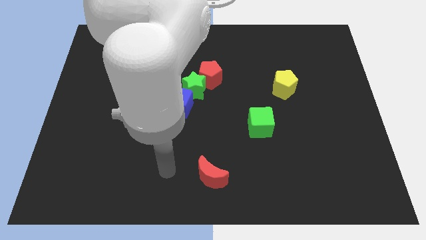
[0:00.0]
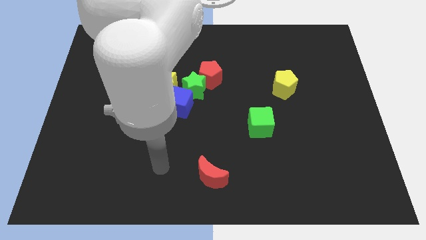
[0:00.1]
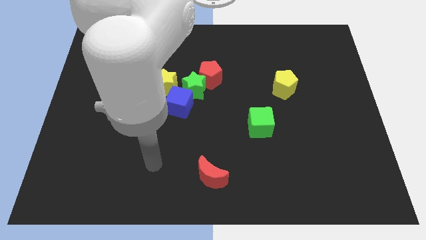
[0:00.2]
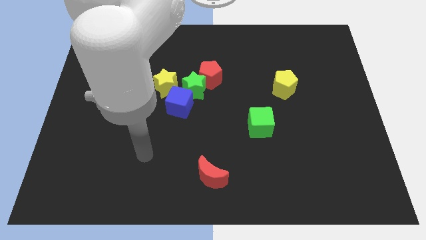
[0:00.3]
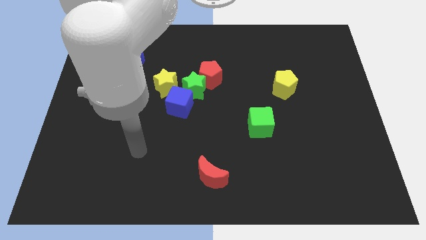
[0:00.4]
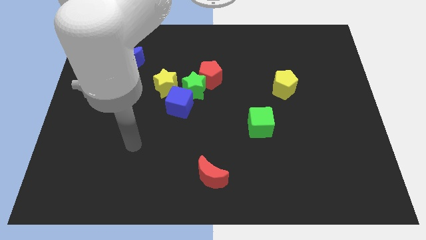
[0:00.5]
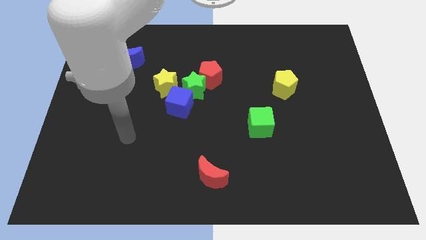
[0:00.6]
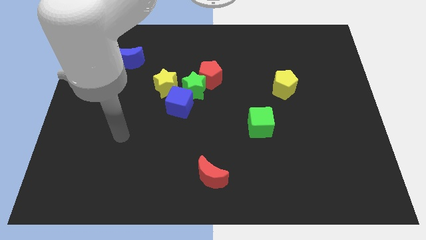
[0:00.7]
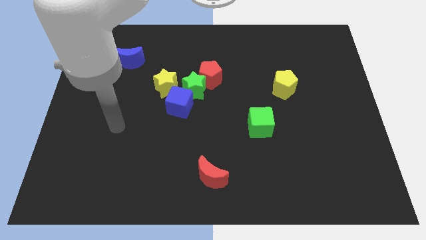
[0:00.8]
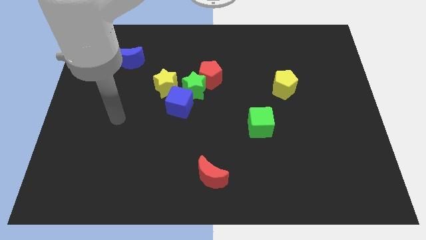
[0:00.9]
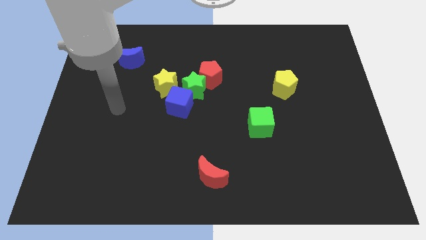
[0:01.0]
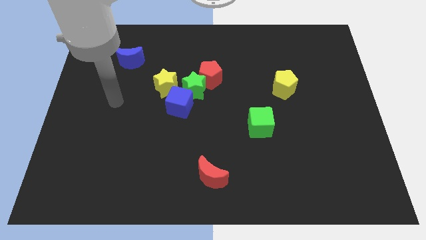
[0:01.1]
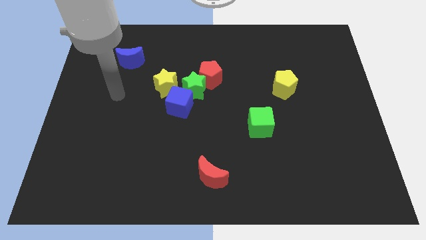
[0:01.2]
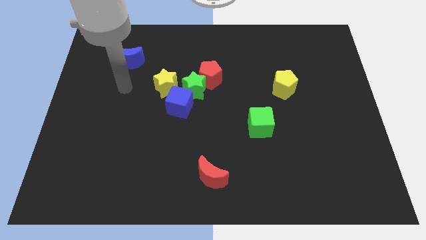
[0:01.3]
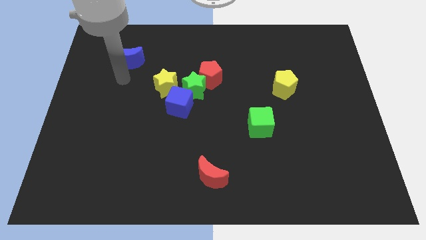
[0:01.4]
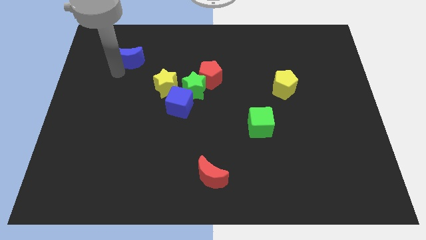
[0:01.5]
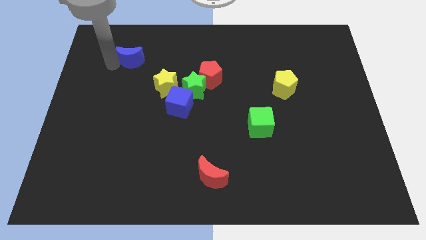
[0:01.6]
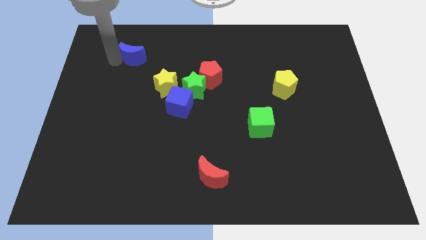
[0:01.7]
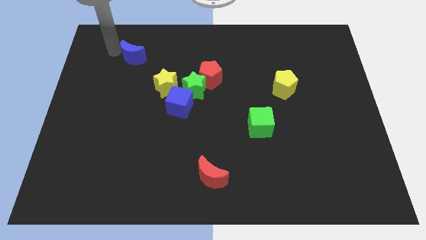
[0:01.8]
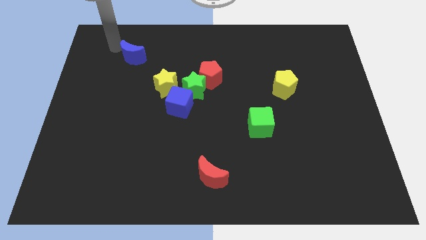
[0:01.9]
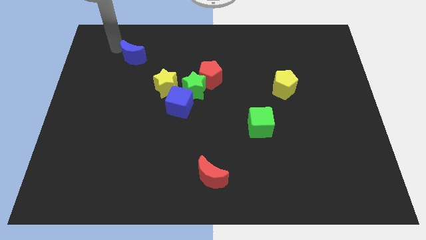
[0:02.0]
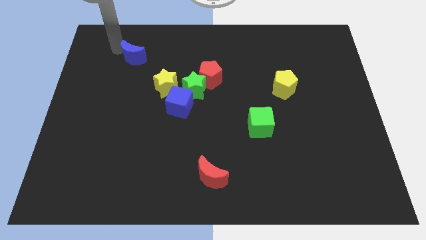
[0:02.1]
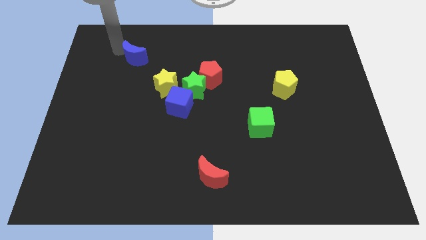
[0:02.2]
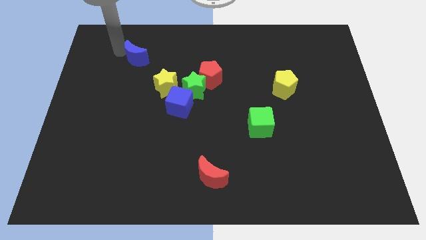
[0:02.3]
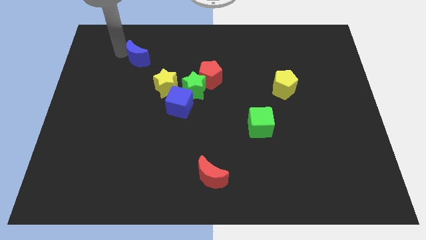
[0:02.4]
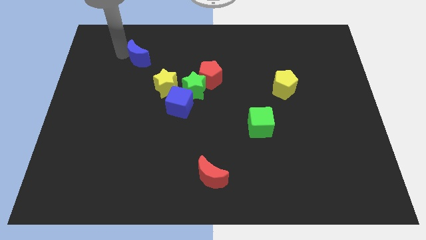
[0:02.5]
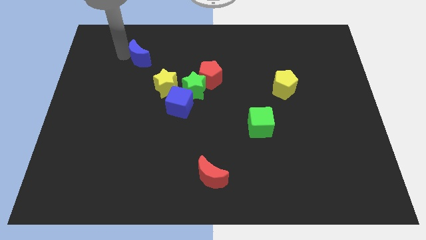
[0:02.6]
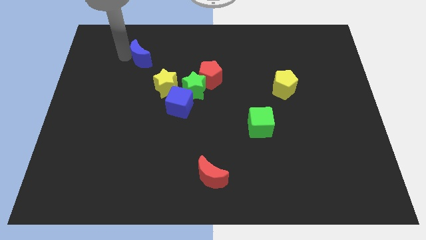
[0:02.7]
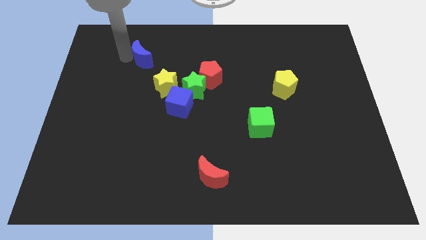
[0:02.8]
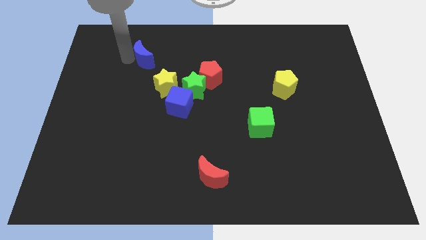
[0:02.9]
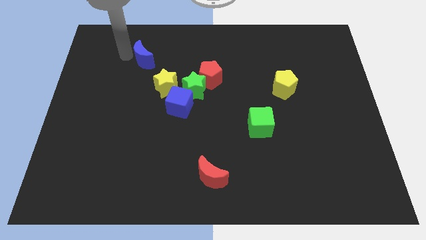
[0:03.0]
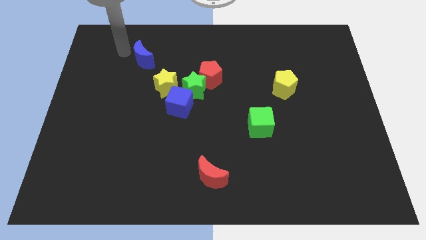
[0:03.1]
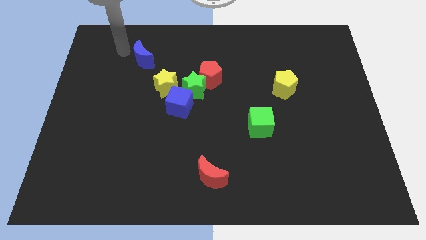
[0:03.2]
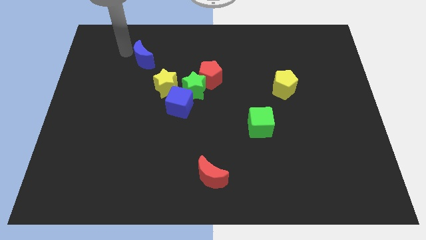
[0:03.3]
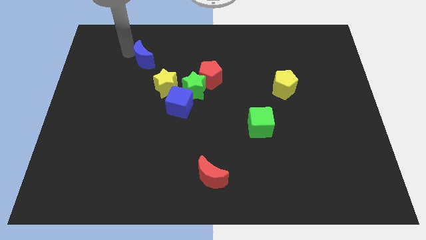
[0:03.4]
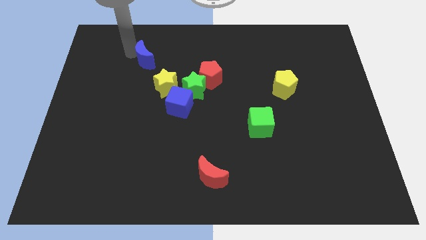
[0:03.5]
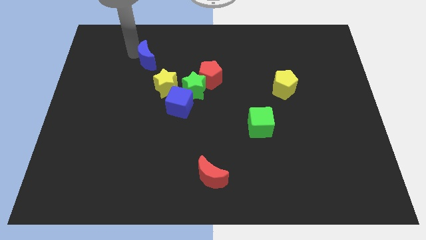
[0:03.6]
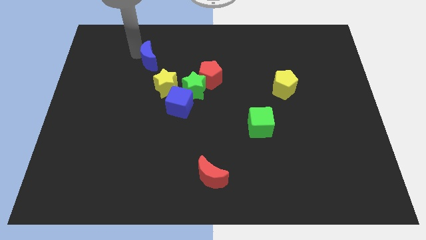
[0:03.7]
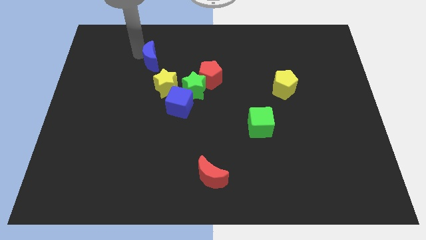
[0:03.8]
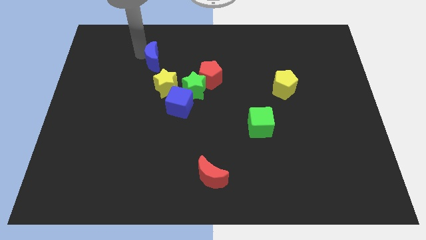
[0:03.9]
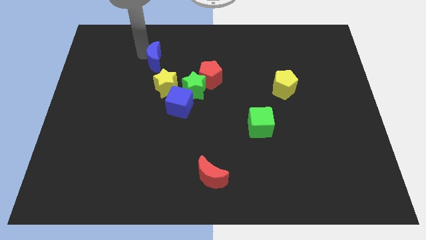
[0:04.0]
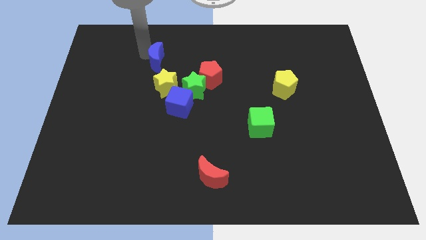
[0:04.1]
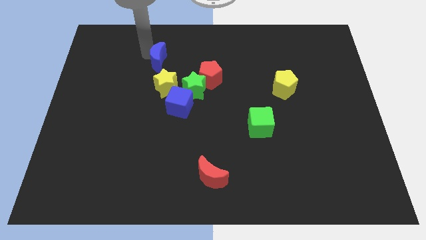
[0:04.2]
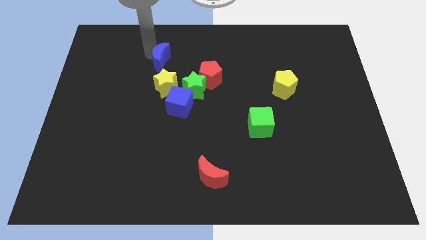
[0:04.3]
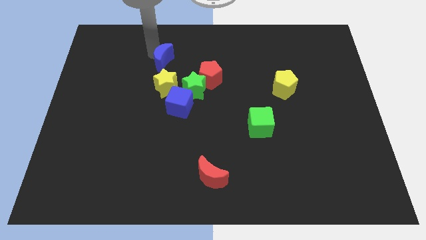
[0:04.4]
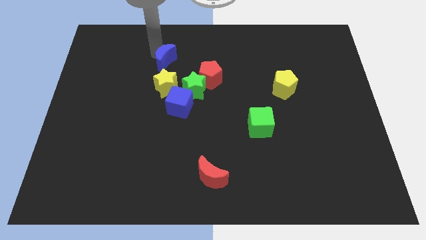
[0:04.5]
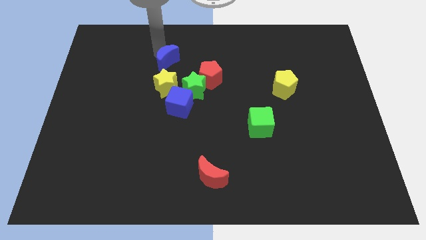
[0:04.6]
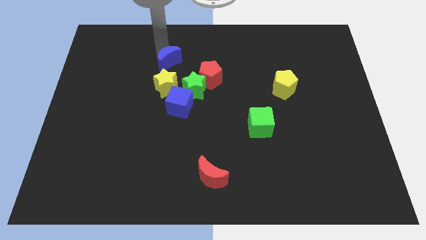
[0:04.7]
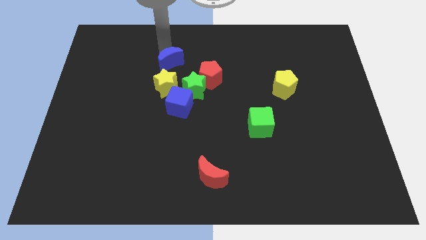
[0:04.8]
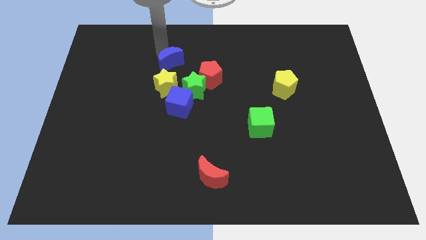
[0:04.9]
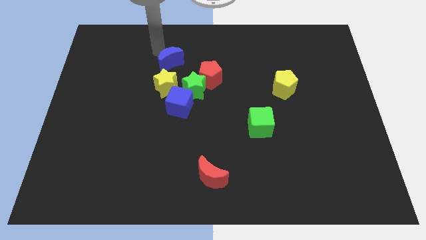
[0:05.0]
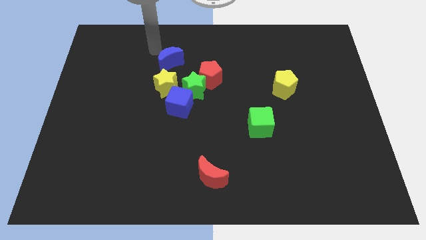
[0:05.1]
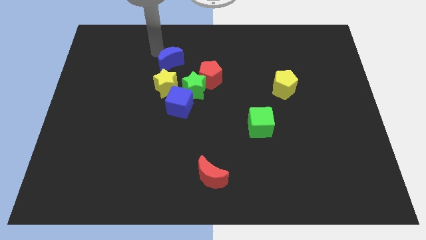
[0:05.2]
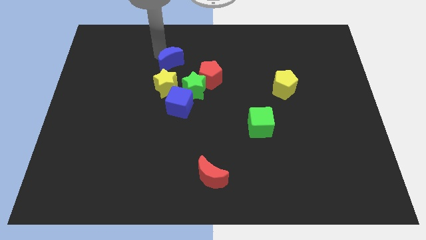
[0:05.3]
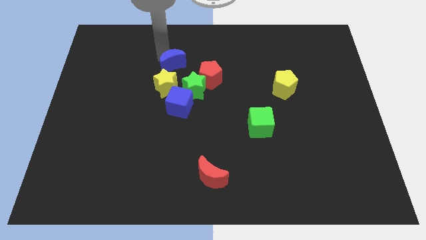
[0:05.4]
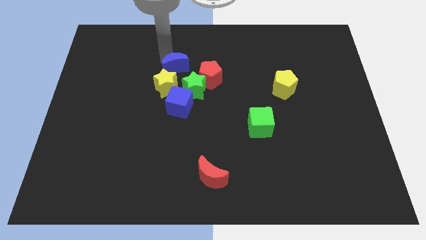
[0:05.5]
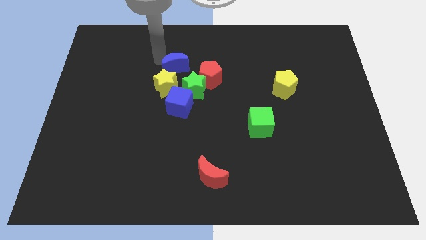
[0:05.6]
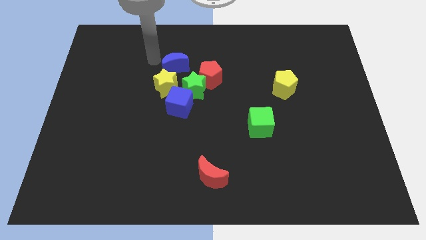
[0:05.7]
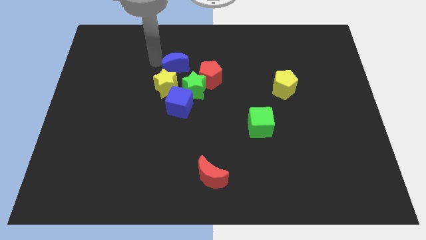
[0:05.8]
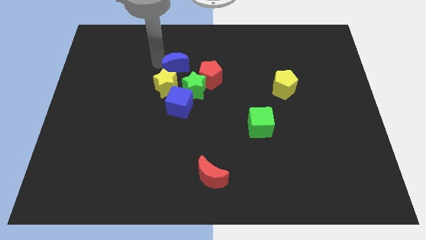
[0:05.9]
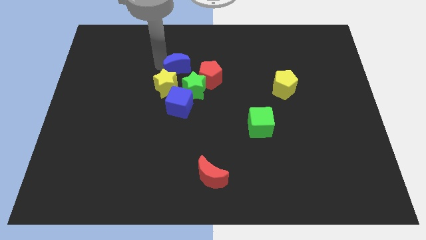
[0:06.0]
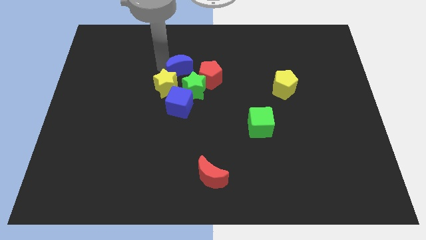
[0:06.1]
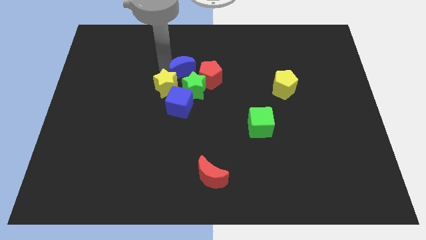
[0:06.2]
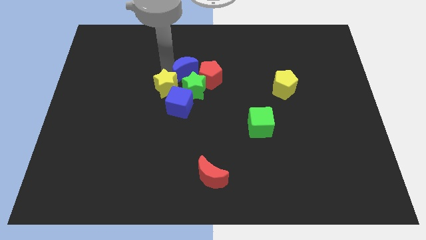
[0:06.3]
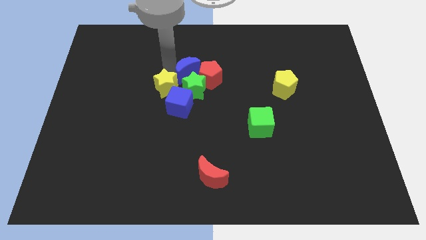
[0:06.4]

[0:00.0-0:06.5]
put the blue moon to the red pentagon

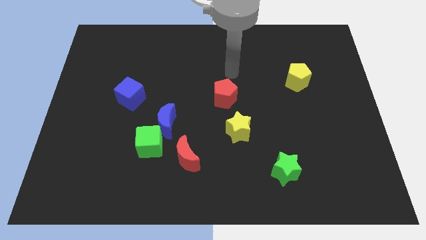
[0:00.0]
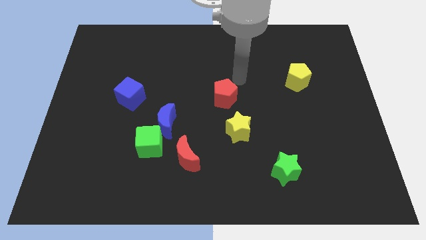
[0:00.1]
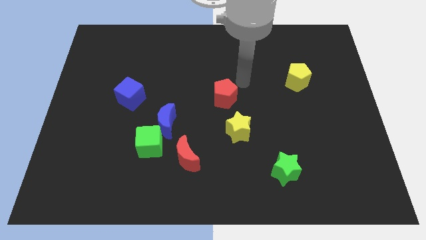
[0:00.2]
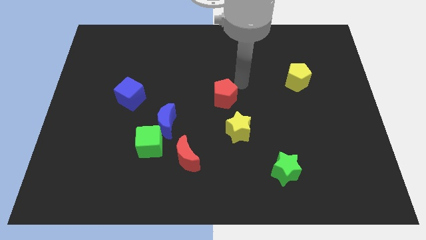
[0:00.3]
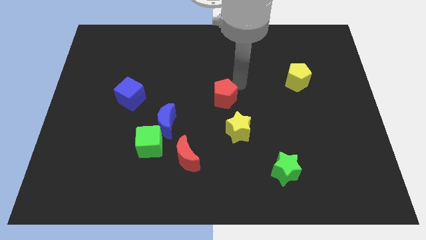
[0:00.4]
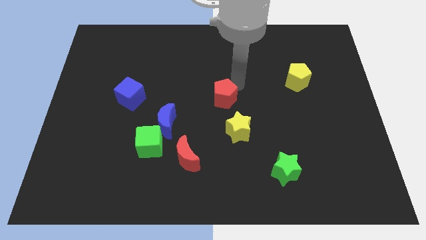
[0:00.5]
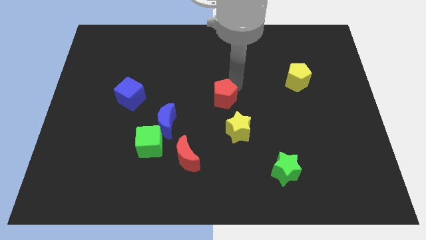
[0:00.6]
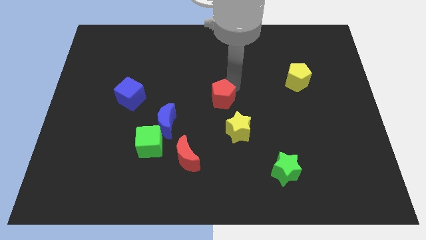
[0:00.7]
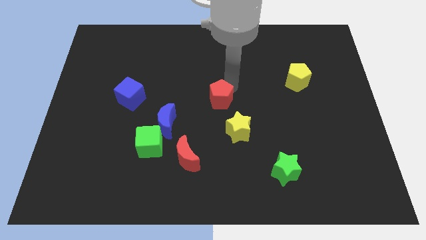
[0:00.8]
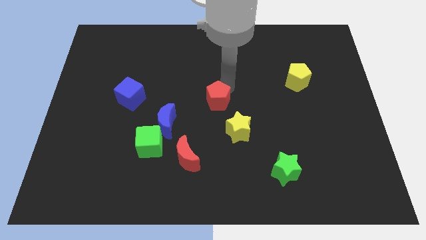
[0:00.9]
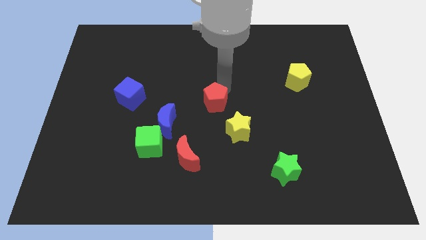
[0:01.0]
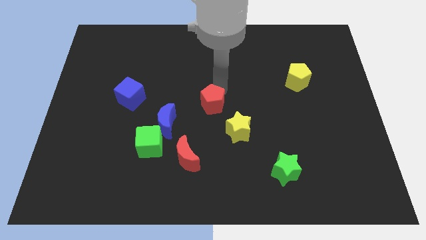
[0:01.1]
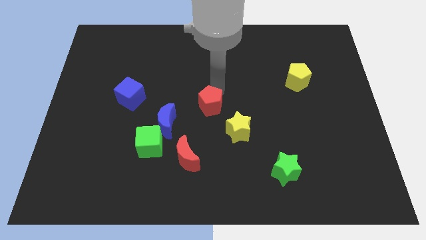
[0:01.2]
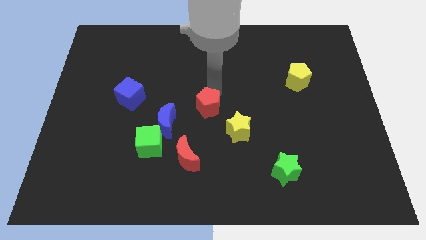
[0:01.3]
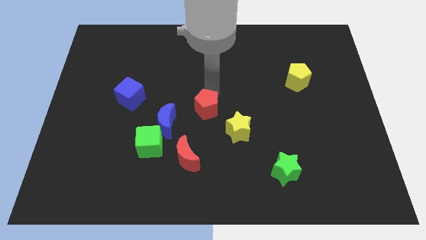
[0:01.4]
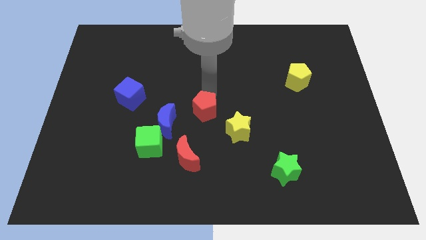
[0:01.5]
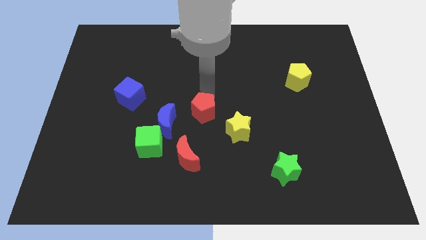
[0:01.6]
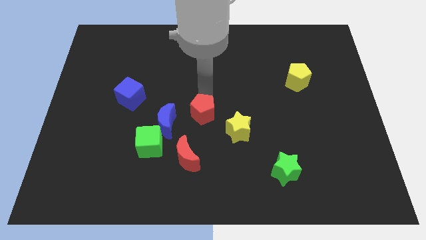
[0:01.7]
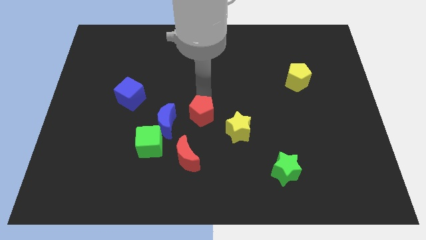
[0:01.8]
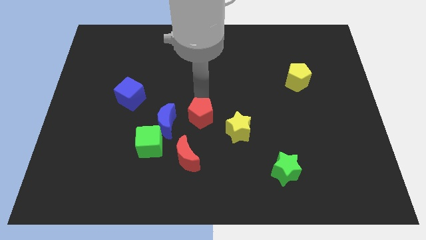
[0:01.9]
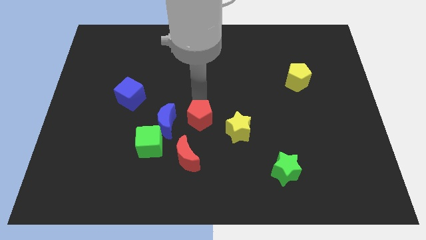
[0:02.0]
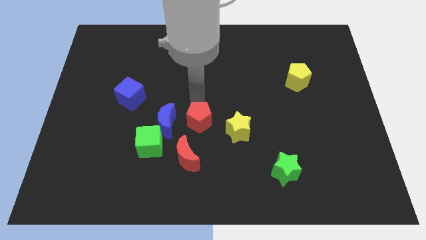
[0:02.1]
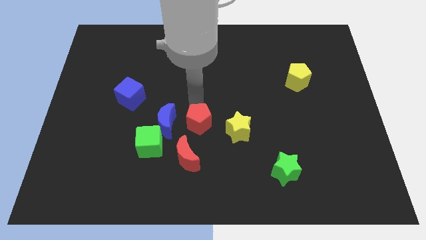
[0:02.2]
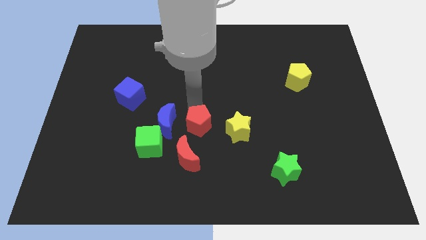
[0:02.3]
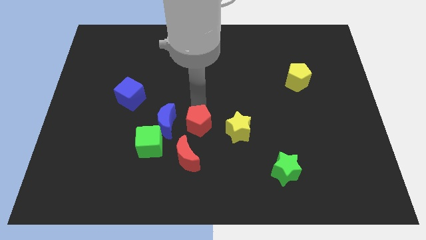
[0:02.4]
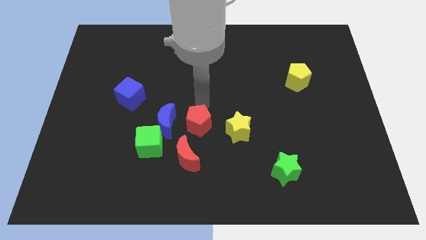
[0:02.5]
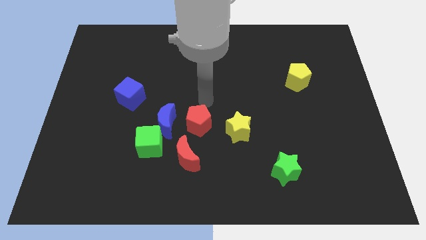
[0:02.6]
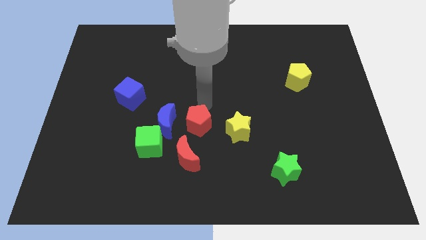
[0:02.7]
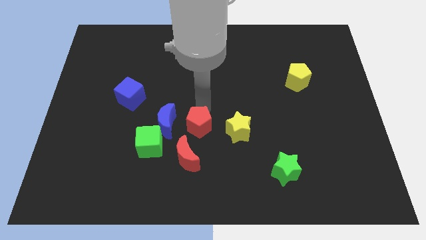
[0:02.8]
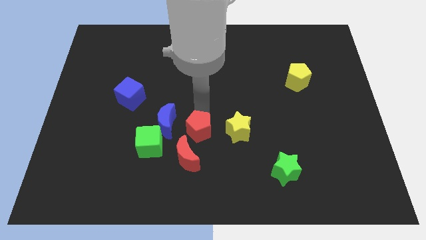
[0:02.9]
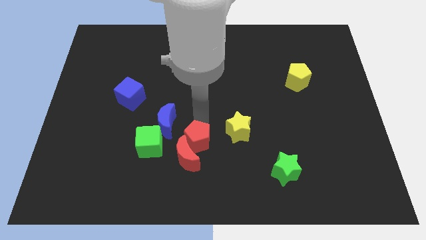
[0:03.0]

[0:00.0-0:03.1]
push the red pentagon to the red moon
